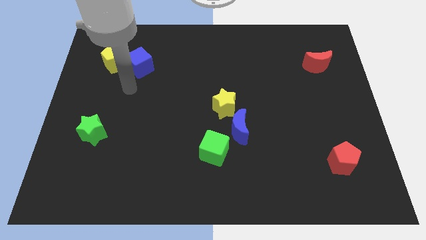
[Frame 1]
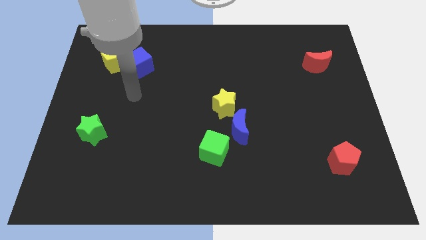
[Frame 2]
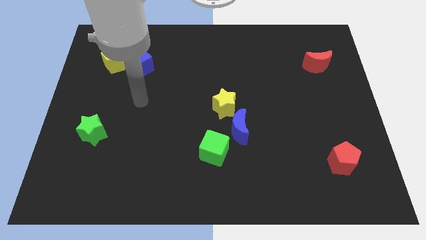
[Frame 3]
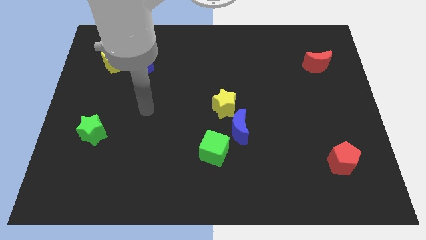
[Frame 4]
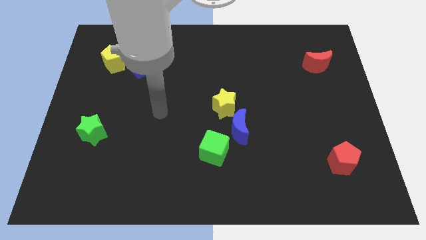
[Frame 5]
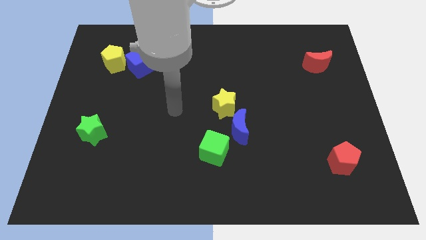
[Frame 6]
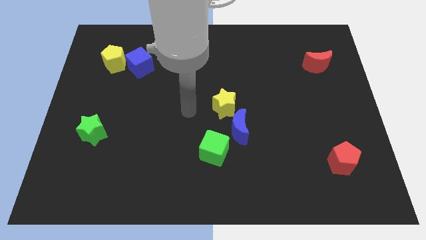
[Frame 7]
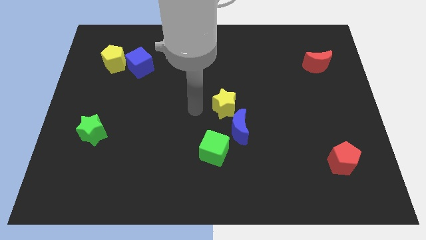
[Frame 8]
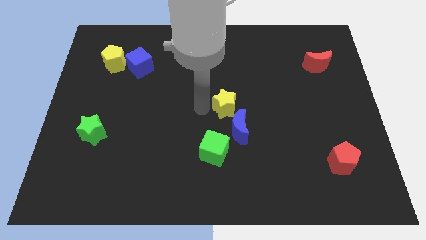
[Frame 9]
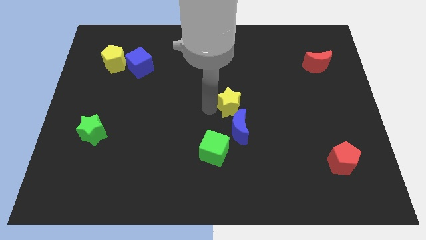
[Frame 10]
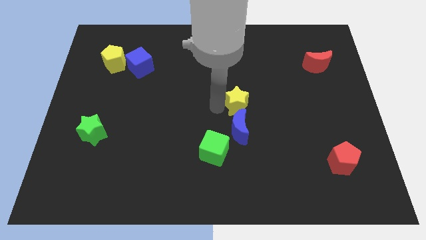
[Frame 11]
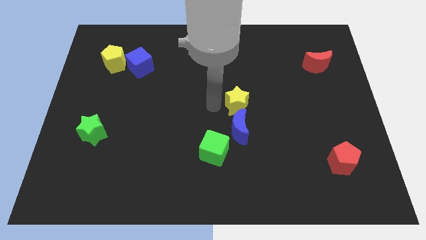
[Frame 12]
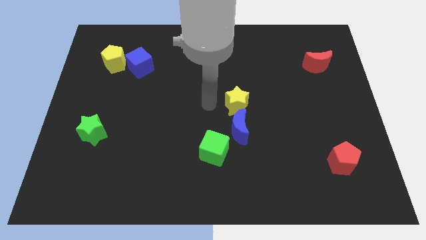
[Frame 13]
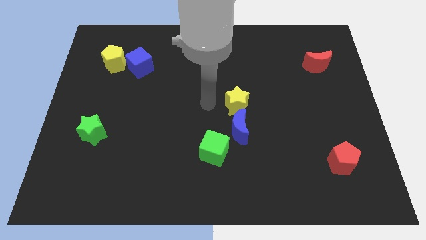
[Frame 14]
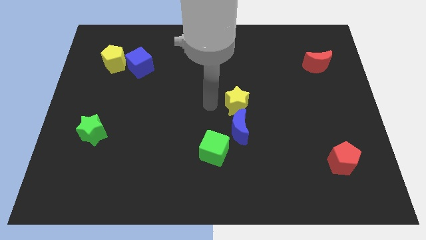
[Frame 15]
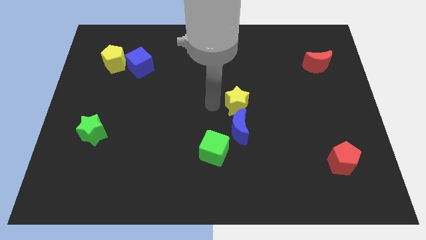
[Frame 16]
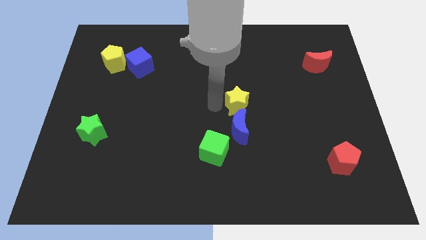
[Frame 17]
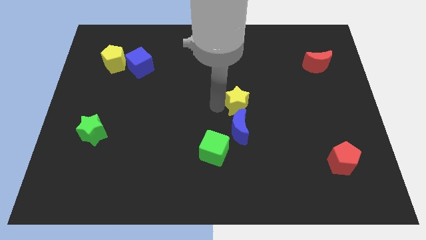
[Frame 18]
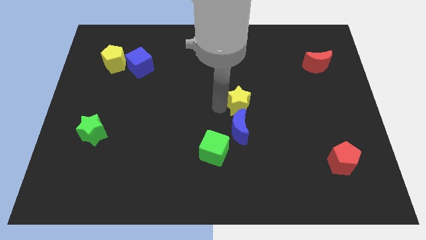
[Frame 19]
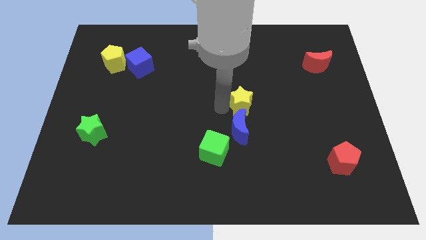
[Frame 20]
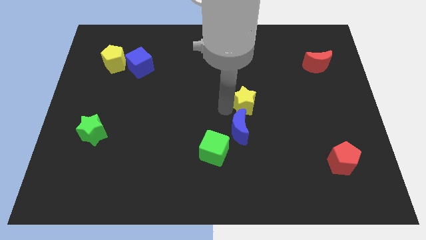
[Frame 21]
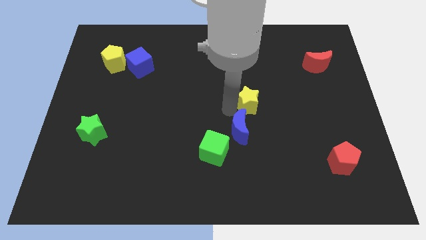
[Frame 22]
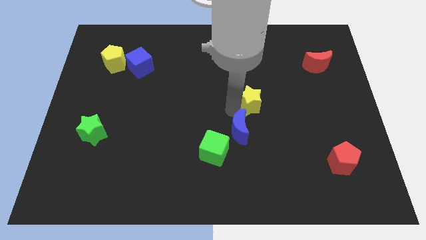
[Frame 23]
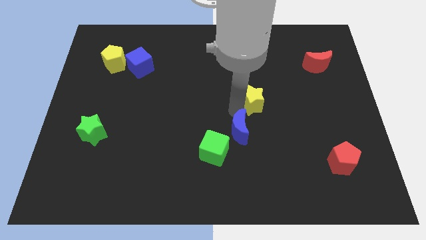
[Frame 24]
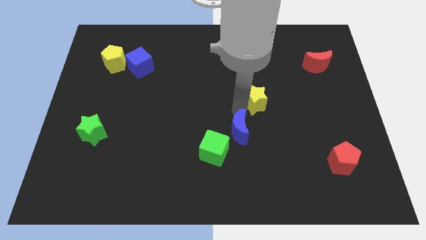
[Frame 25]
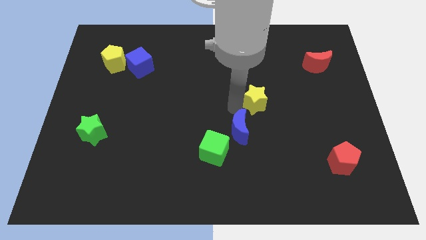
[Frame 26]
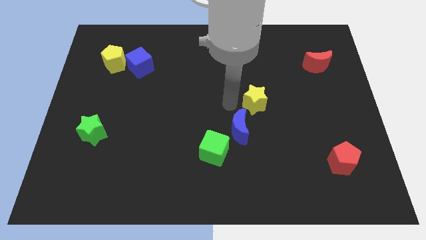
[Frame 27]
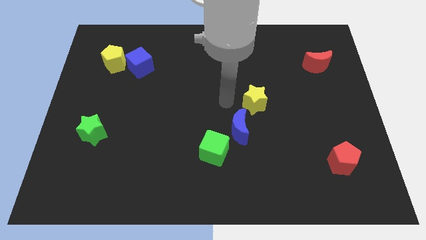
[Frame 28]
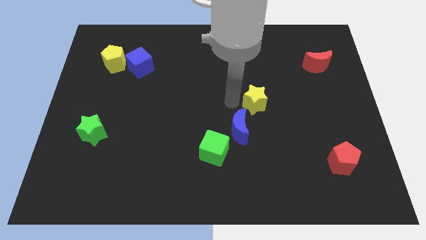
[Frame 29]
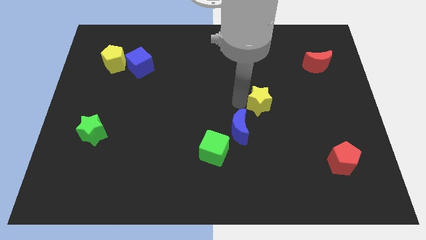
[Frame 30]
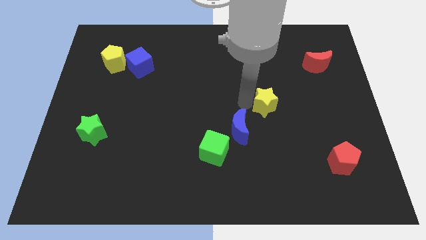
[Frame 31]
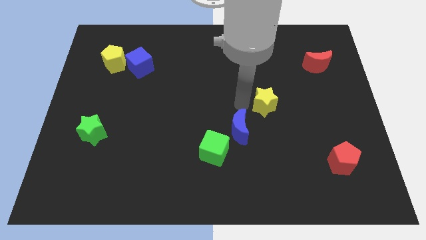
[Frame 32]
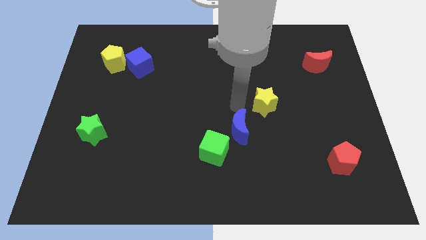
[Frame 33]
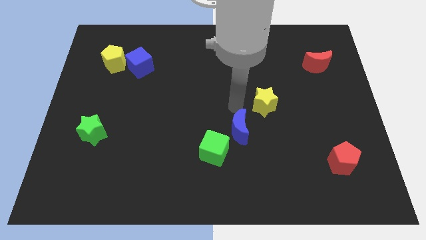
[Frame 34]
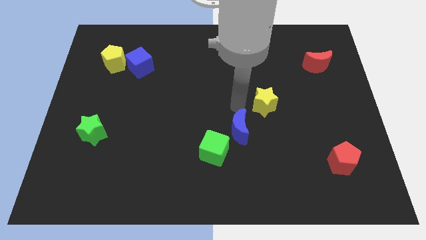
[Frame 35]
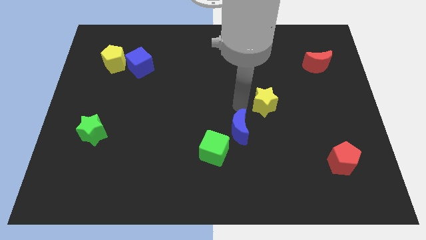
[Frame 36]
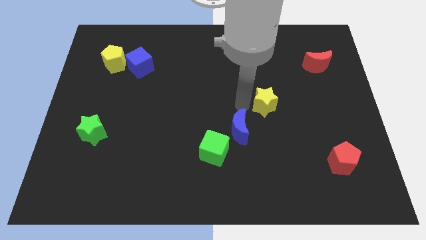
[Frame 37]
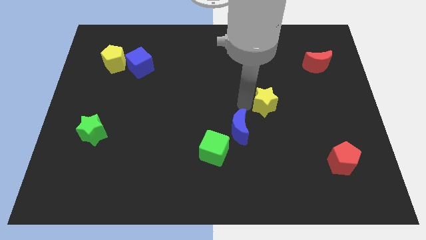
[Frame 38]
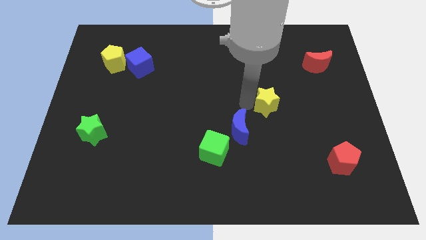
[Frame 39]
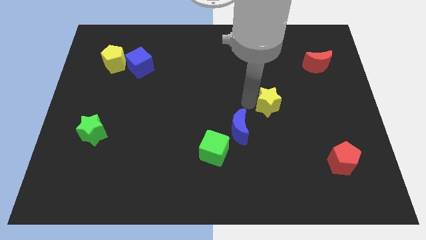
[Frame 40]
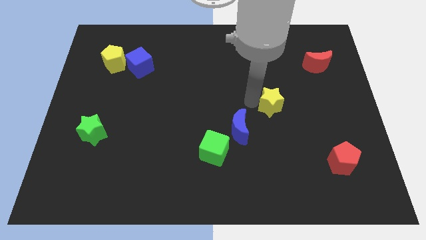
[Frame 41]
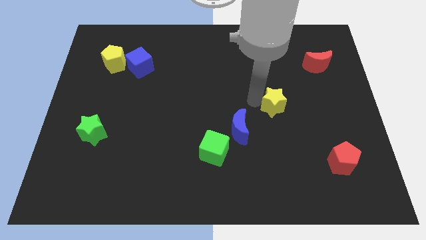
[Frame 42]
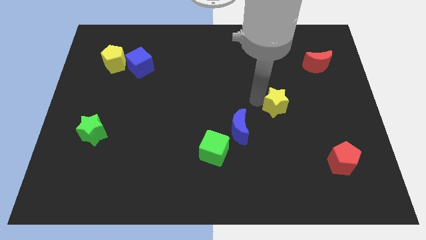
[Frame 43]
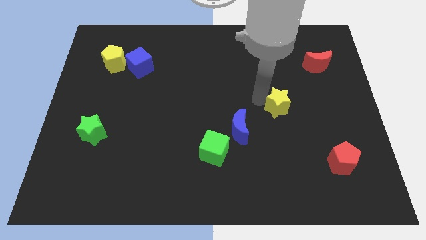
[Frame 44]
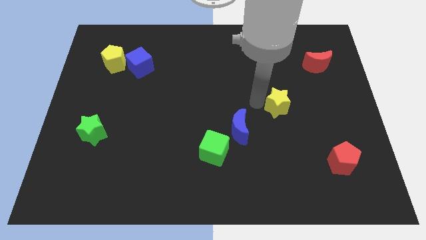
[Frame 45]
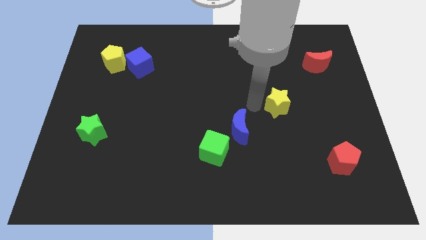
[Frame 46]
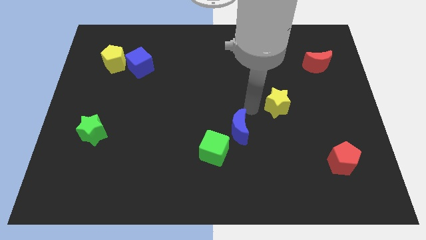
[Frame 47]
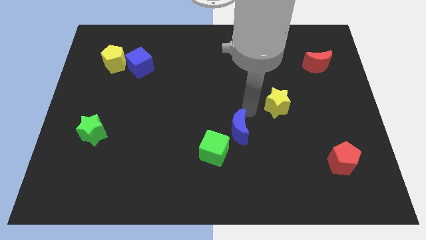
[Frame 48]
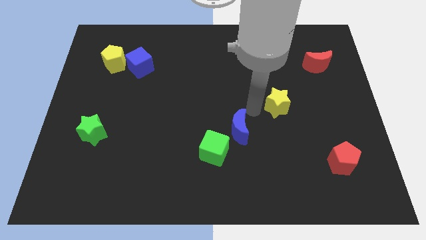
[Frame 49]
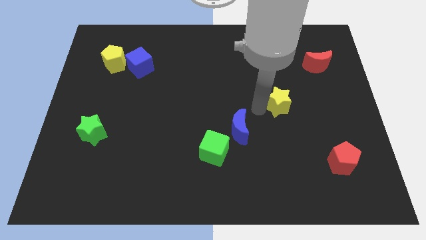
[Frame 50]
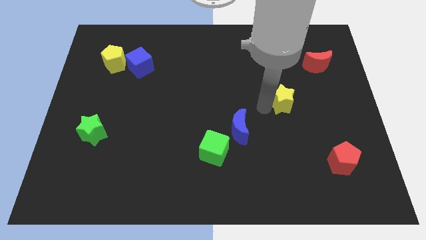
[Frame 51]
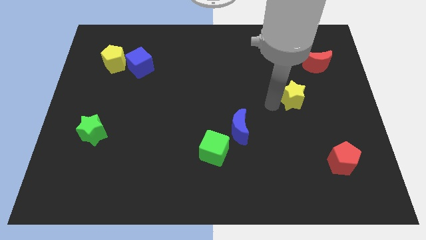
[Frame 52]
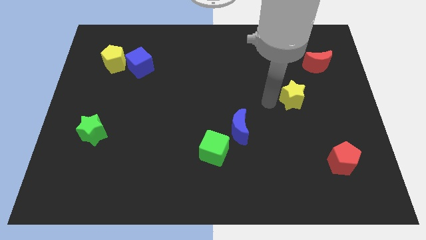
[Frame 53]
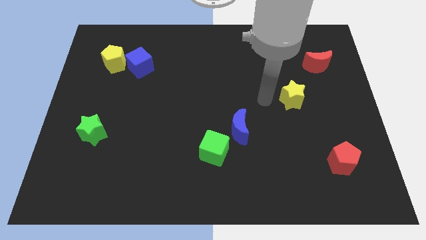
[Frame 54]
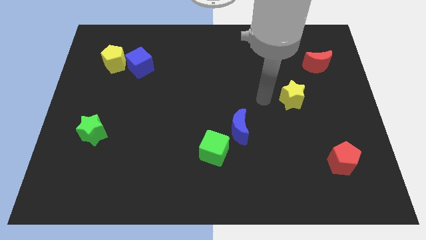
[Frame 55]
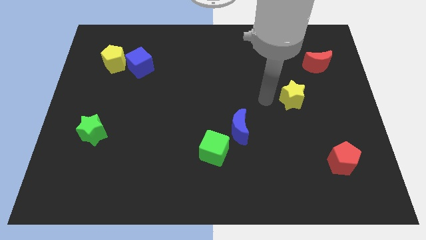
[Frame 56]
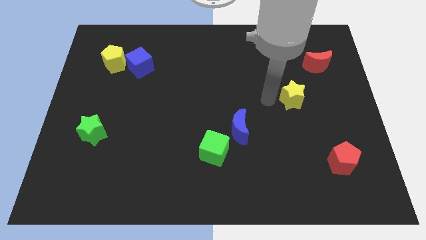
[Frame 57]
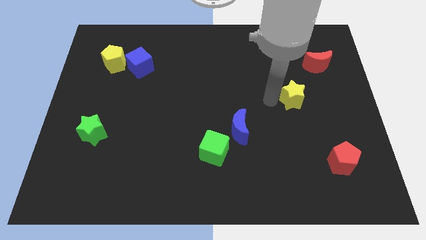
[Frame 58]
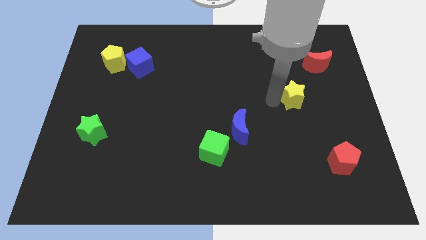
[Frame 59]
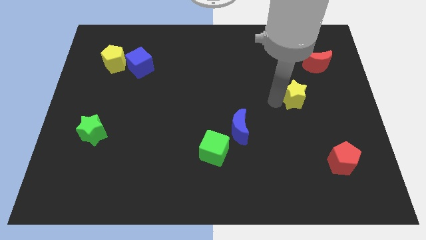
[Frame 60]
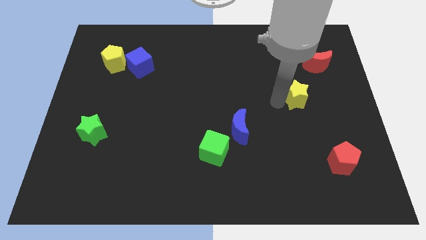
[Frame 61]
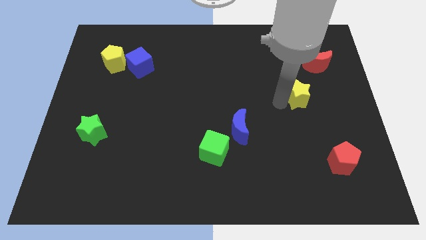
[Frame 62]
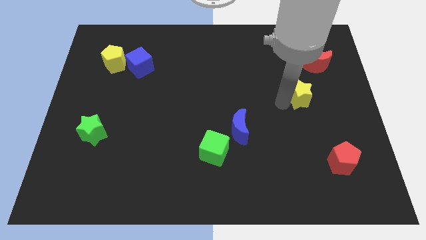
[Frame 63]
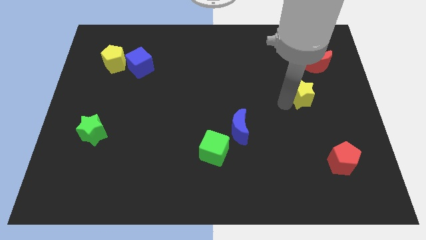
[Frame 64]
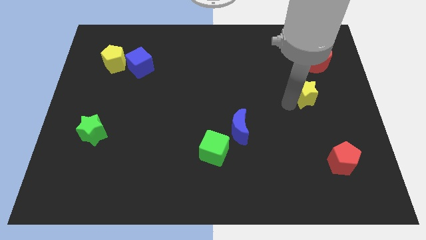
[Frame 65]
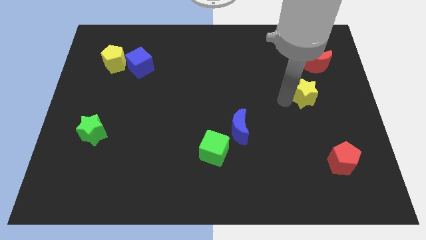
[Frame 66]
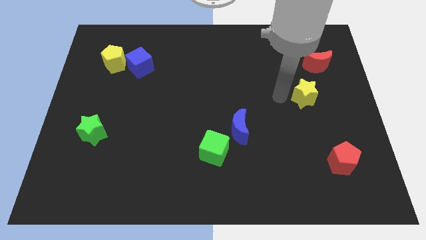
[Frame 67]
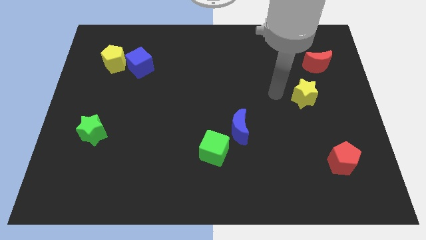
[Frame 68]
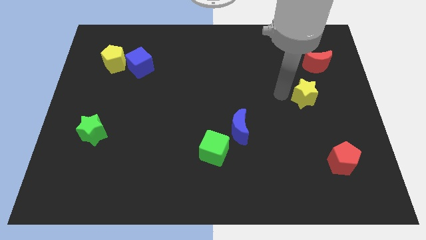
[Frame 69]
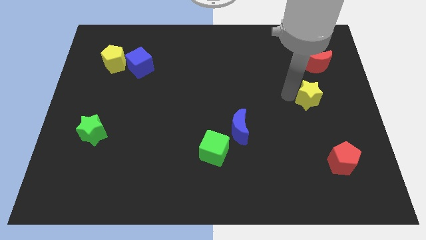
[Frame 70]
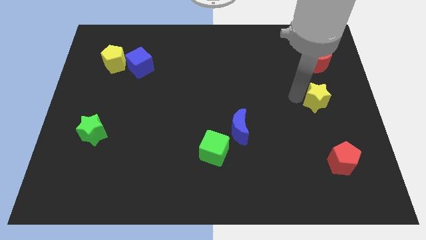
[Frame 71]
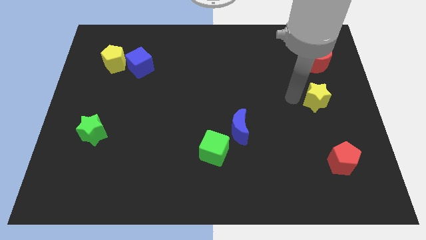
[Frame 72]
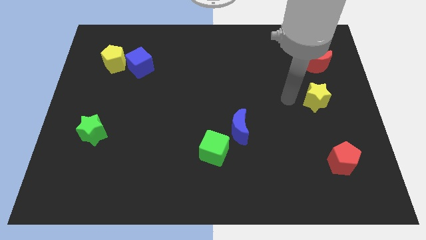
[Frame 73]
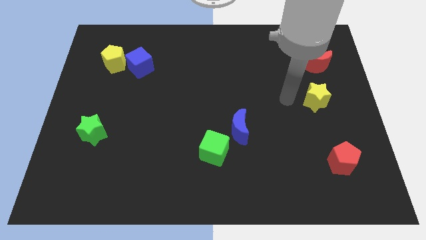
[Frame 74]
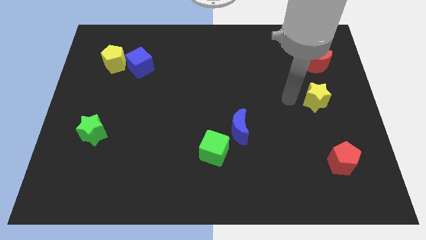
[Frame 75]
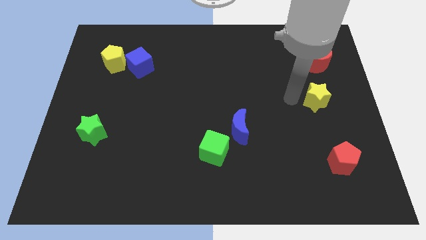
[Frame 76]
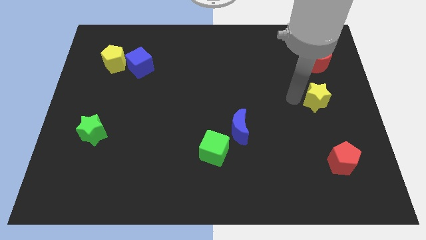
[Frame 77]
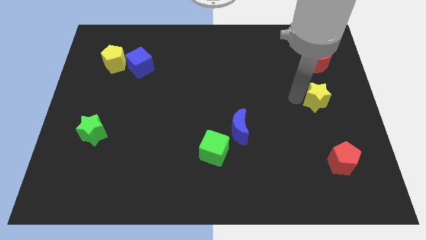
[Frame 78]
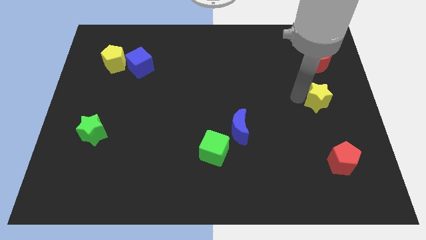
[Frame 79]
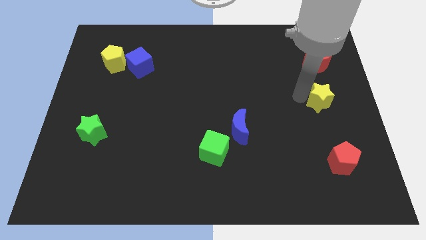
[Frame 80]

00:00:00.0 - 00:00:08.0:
push the yellow star to the right side of the board
